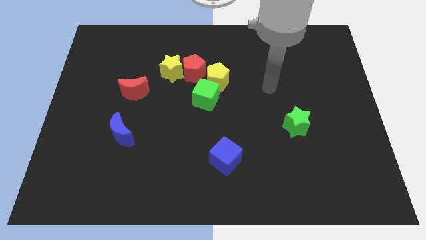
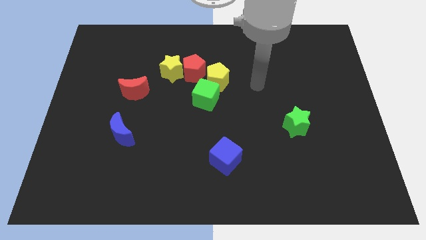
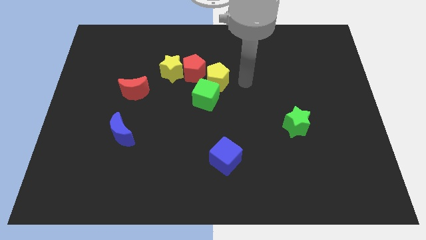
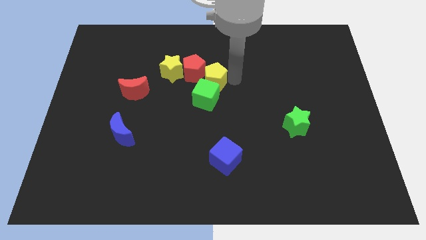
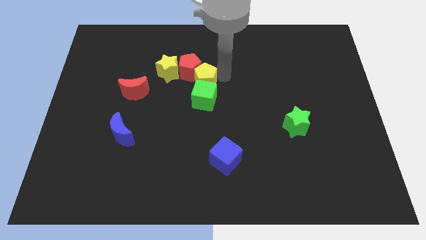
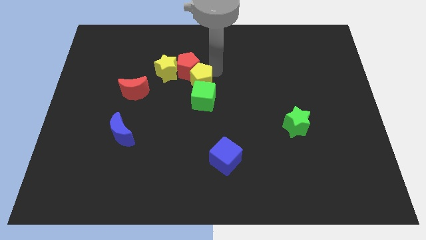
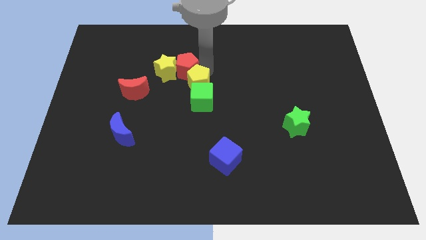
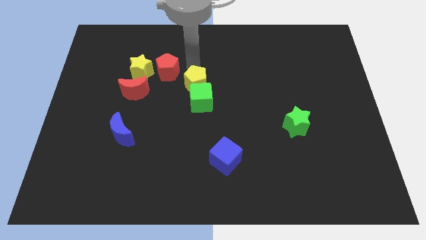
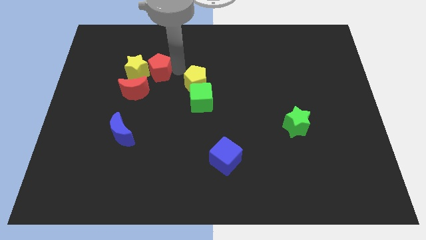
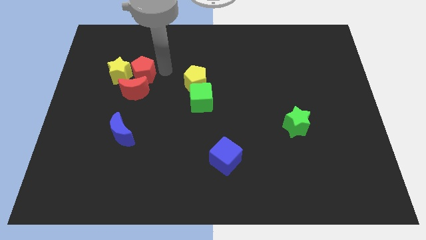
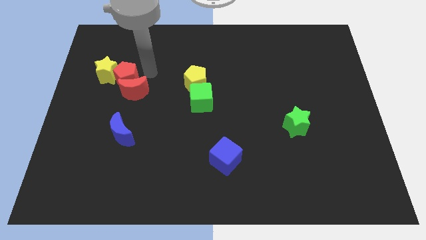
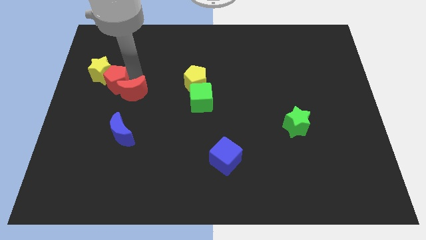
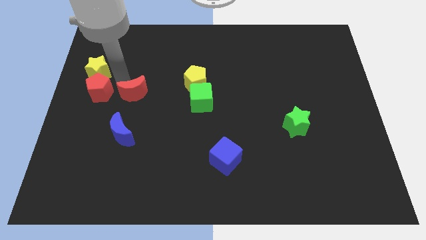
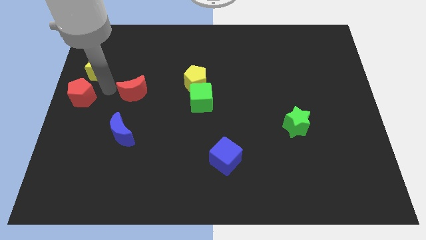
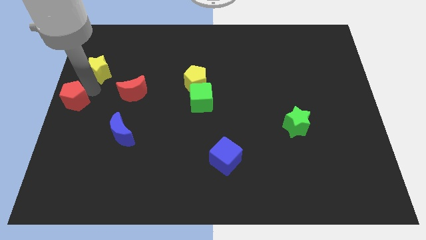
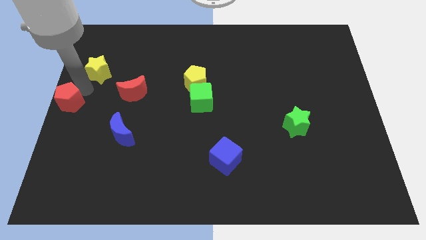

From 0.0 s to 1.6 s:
pull the yellow star apart from the red pentagon

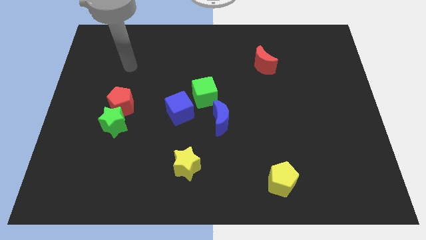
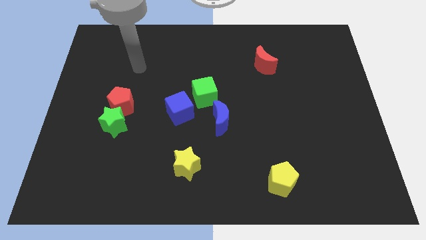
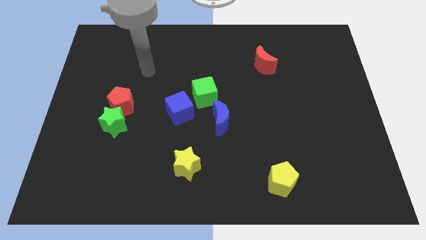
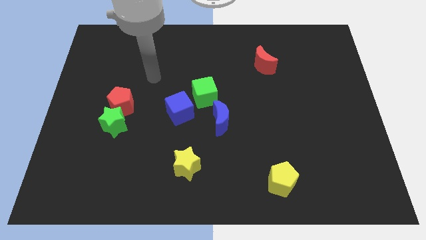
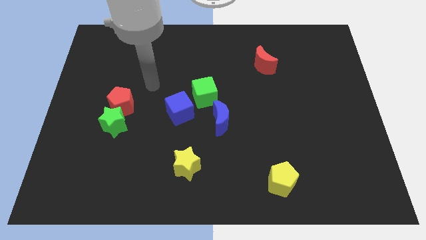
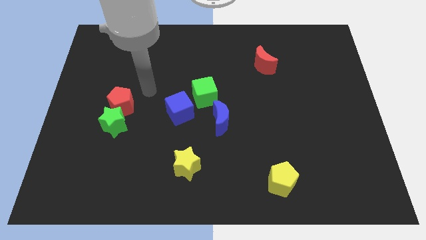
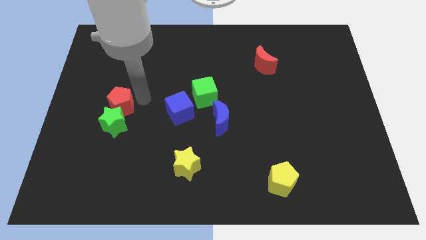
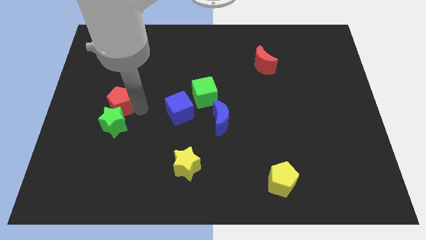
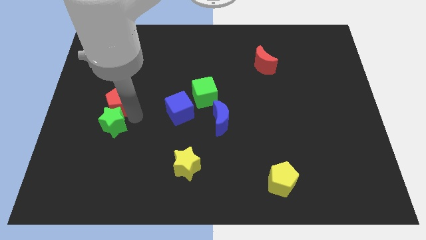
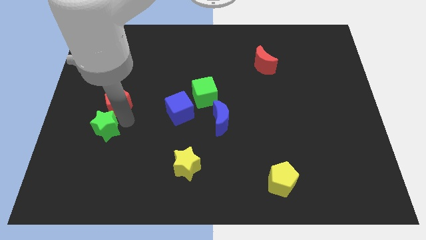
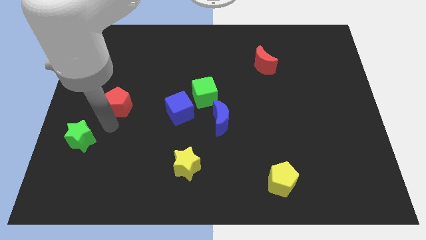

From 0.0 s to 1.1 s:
move the red pentagon away from the green star

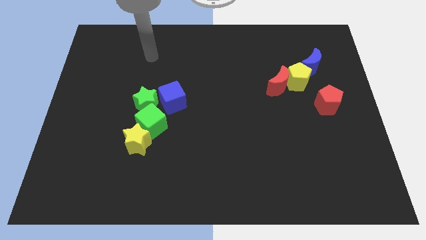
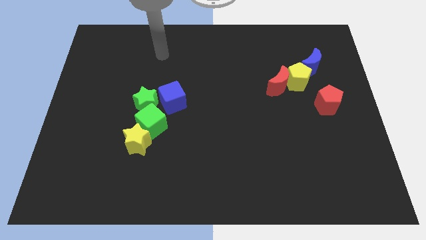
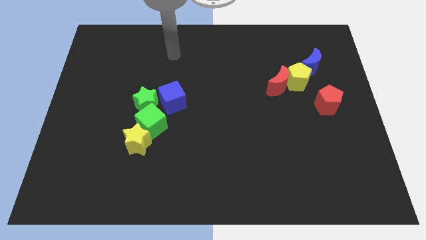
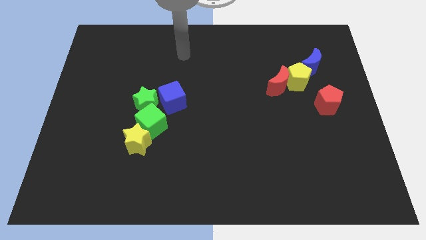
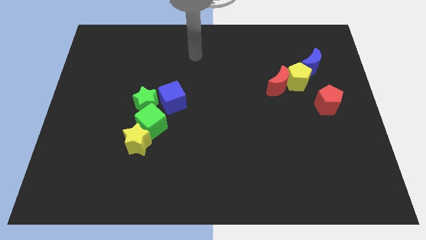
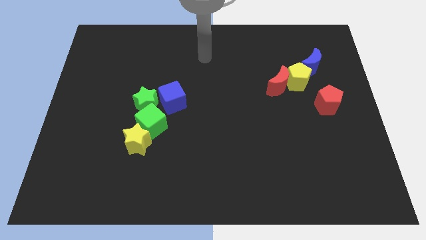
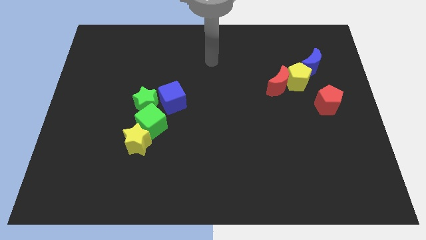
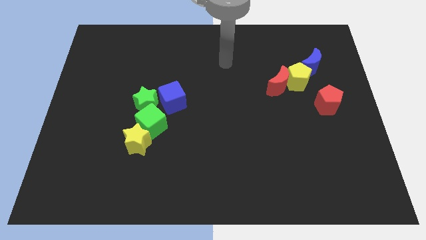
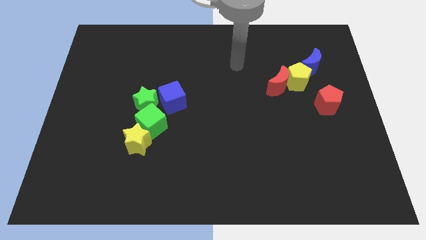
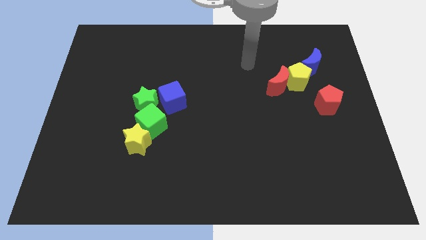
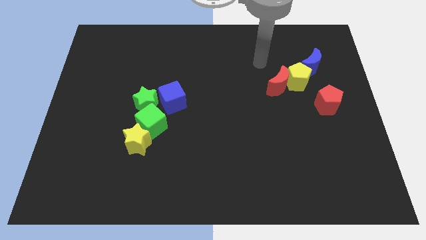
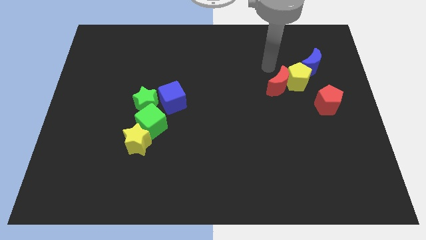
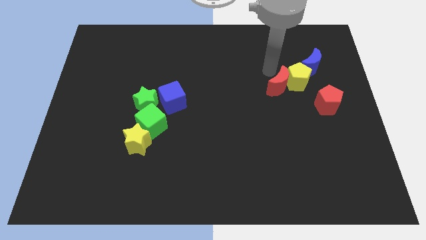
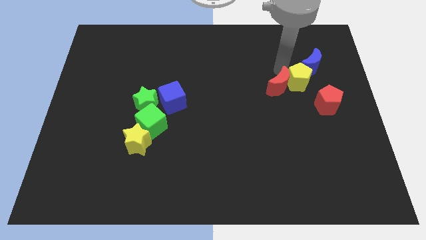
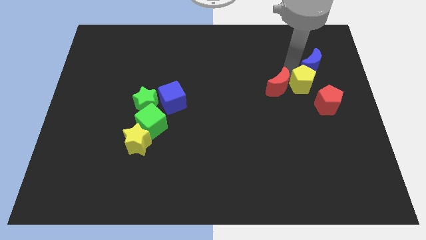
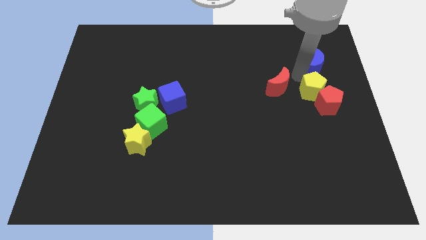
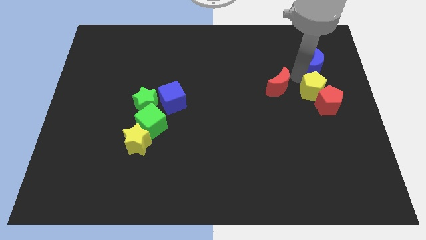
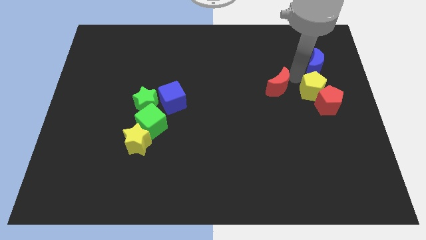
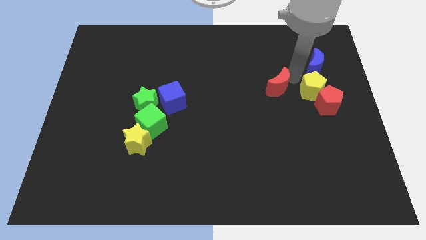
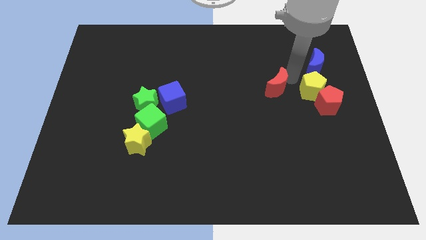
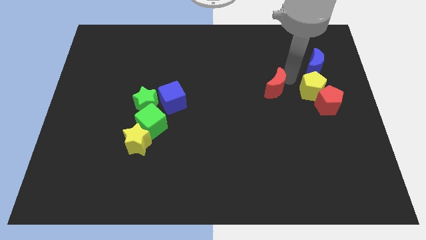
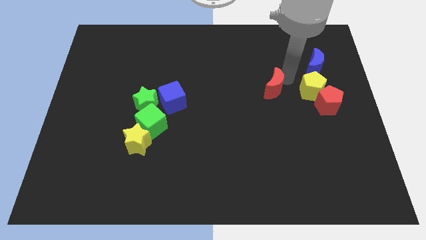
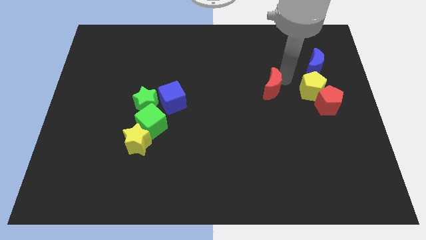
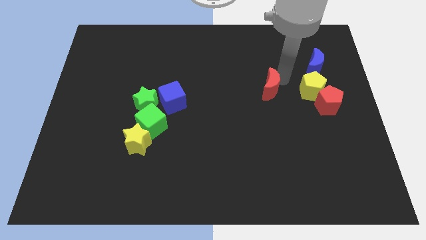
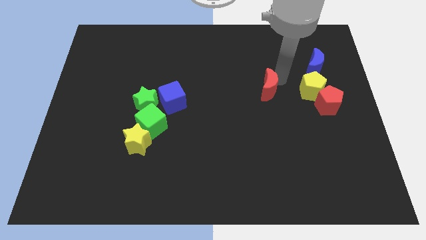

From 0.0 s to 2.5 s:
separate the red moon from the yellow pentagon

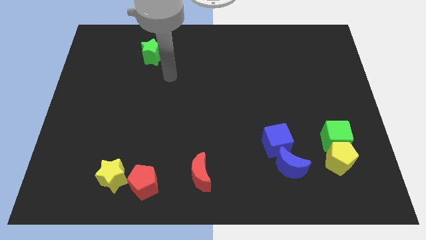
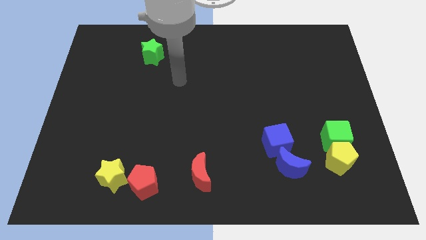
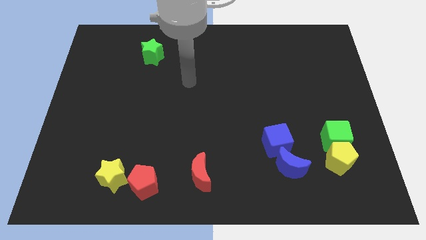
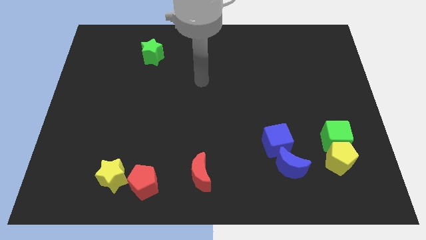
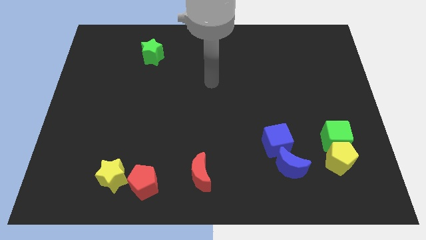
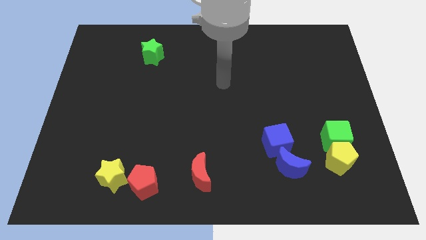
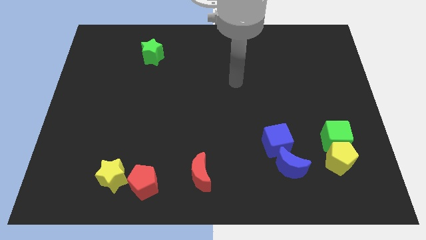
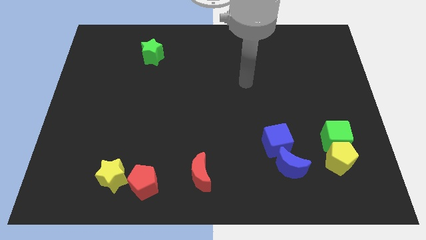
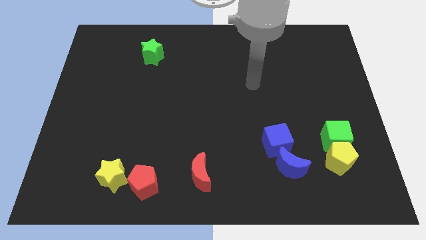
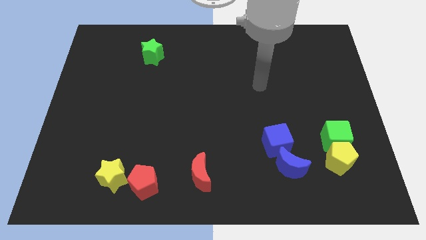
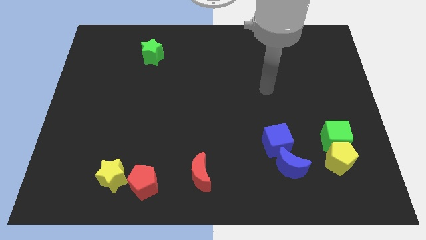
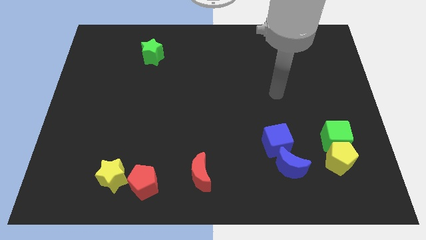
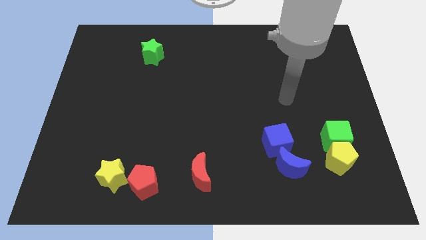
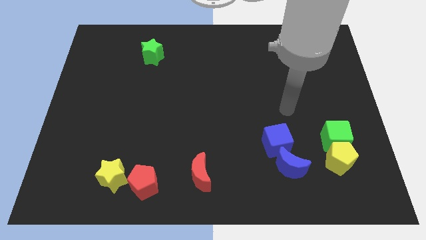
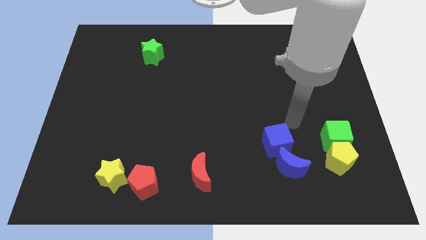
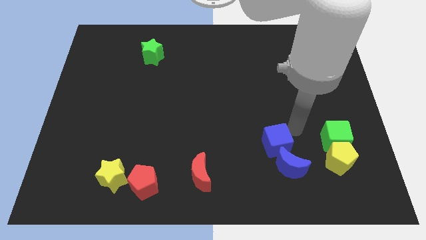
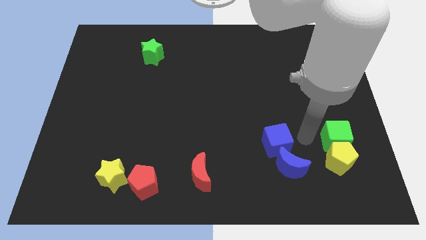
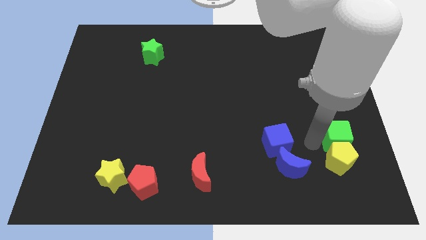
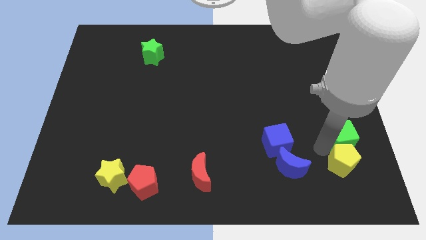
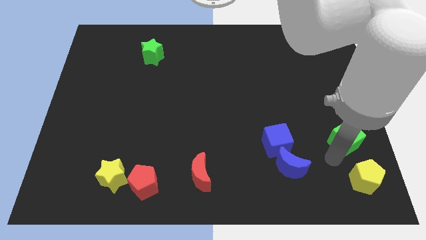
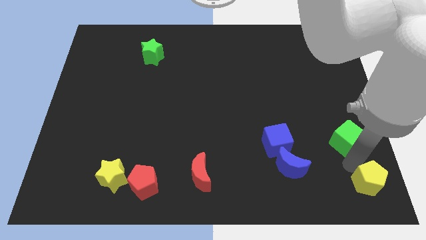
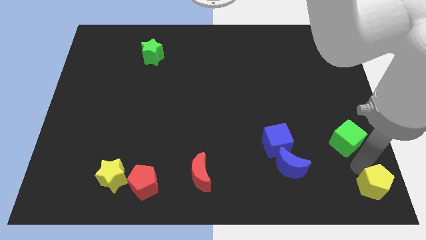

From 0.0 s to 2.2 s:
move the green cube away from the yellow pentagon

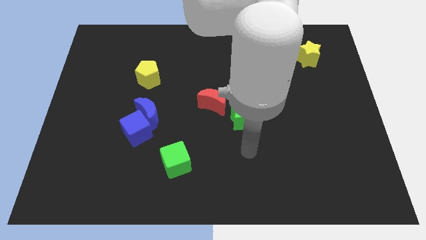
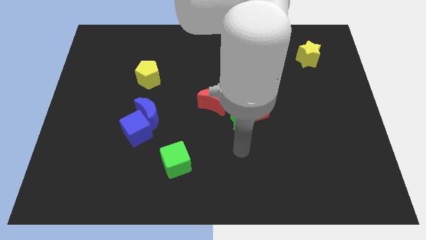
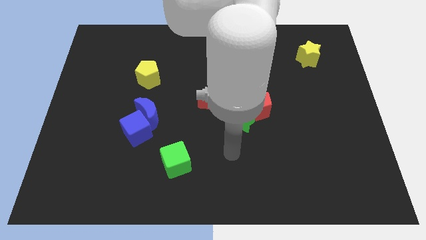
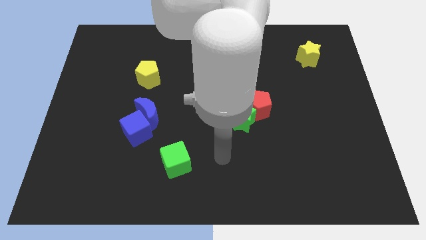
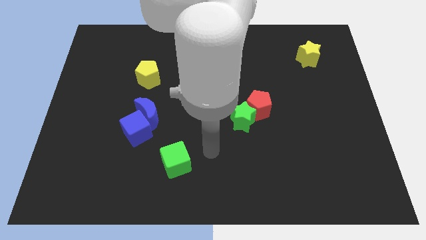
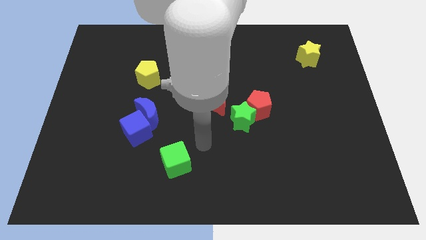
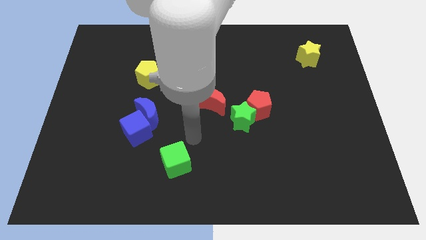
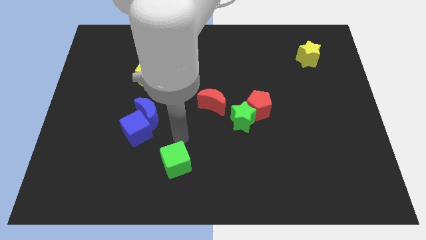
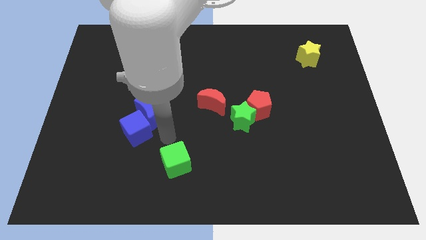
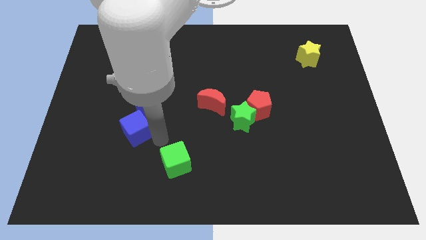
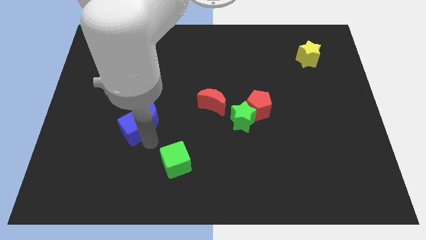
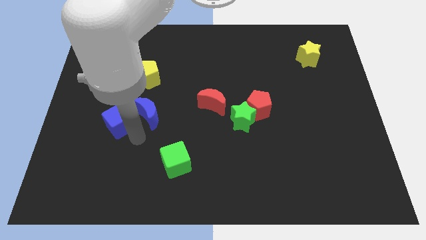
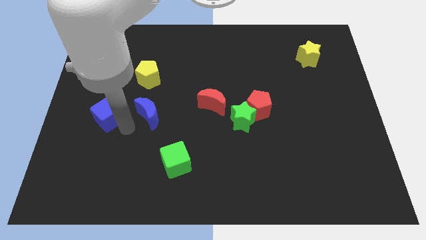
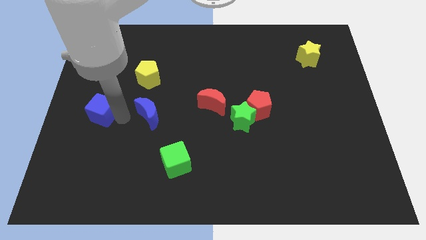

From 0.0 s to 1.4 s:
move the blue moon away from the blue cube

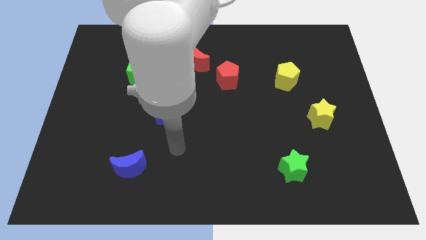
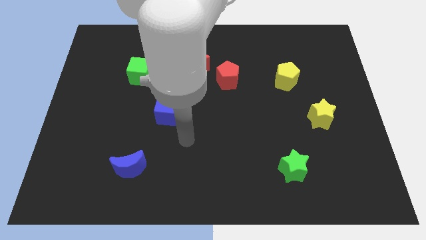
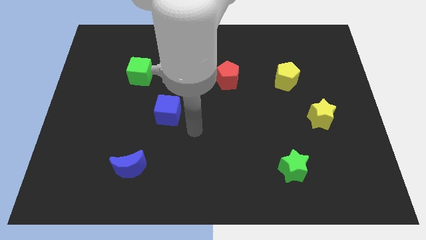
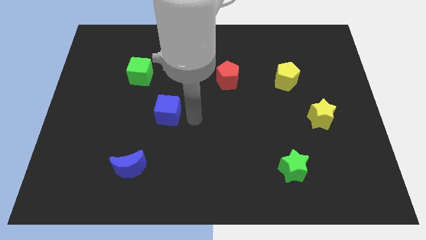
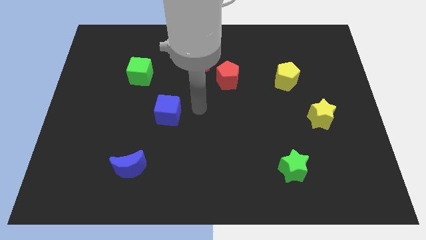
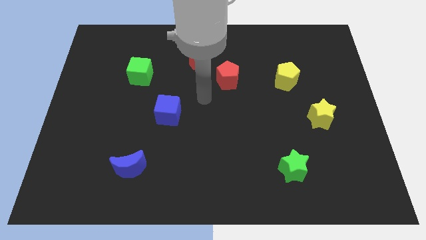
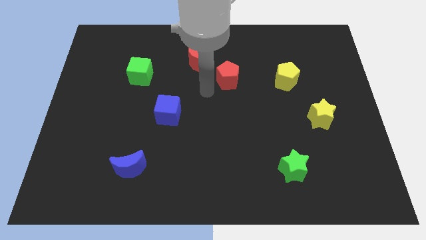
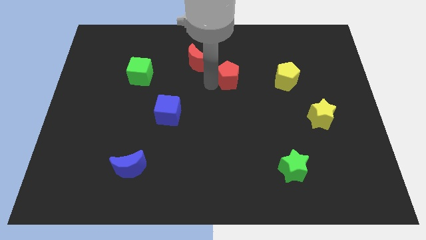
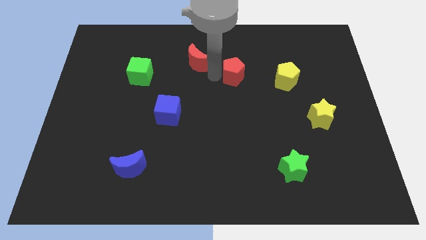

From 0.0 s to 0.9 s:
move the red moon away from the red pentagon
